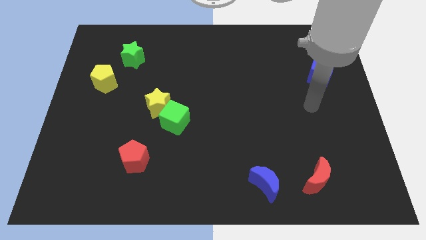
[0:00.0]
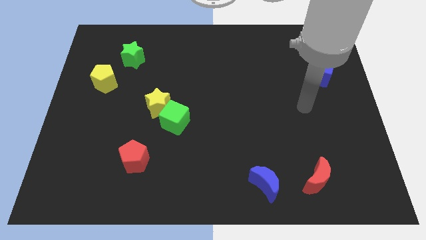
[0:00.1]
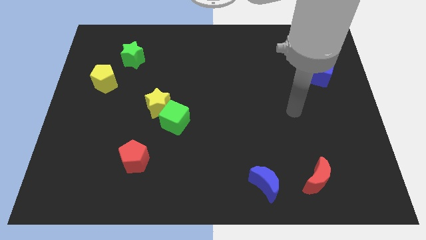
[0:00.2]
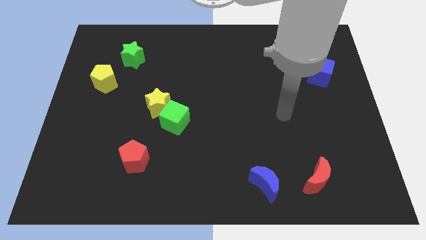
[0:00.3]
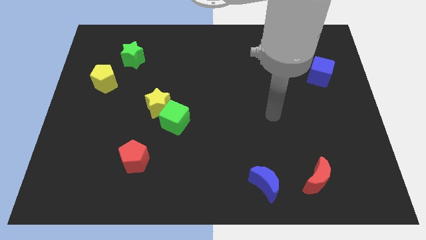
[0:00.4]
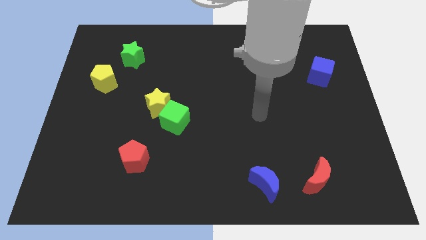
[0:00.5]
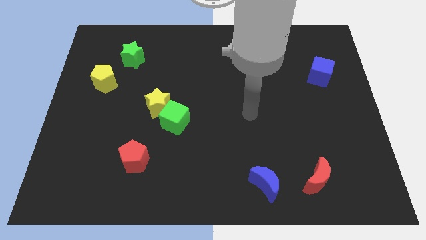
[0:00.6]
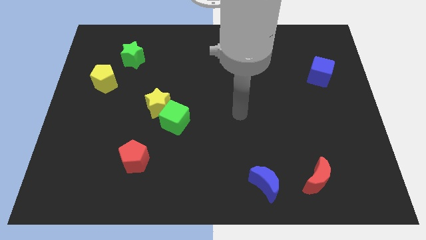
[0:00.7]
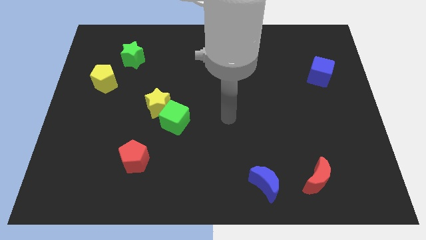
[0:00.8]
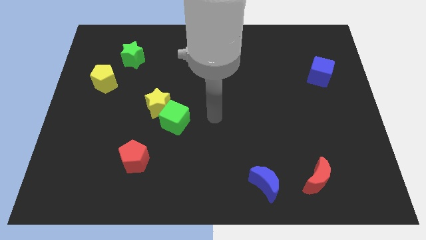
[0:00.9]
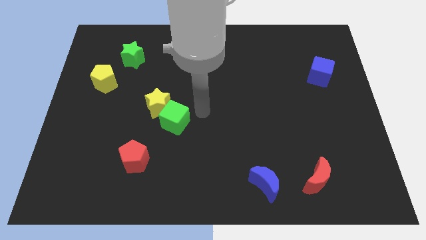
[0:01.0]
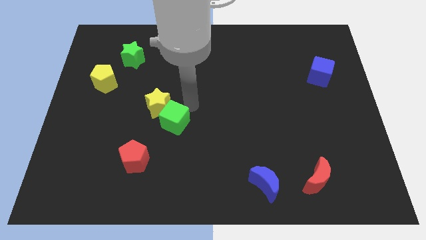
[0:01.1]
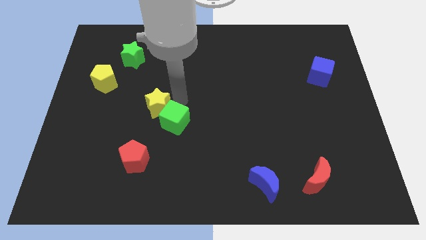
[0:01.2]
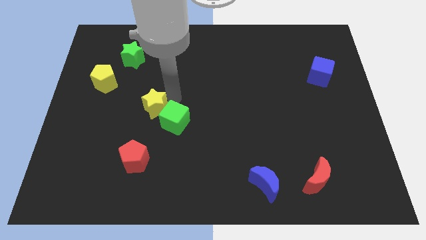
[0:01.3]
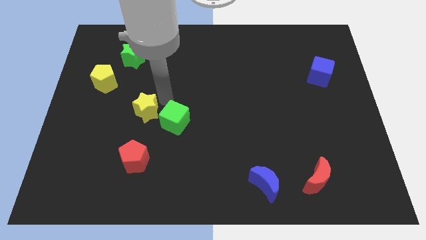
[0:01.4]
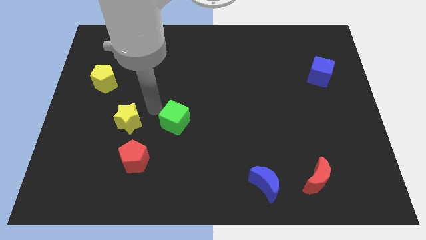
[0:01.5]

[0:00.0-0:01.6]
pull the green cube apart from the yellow star

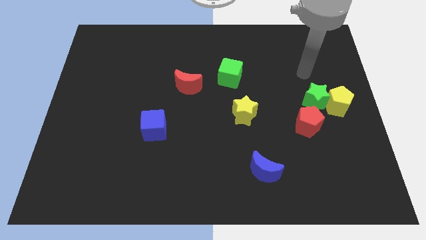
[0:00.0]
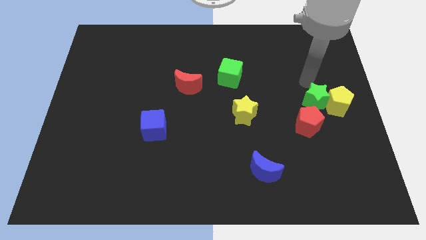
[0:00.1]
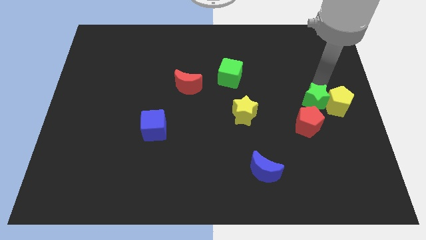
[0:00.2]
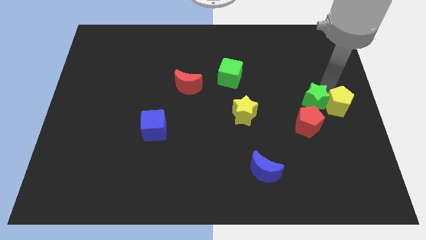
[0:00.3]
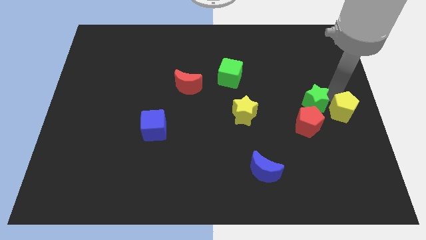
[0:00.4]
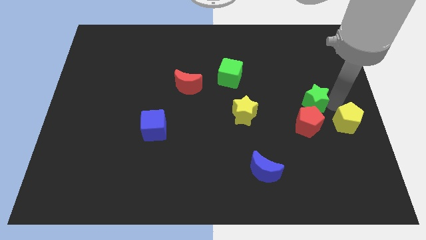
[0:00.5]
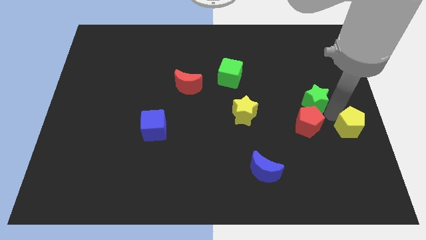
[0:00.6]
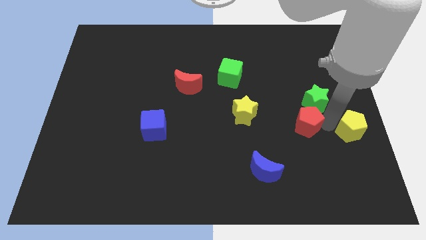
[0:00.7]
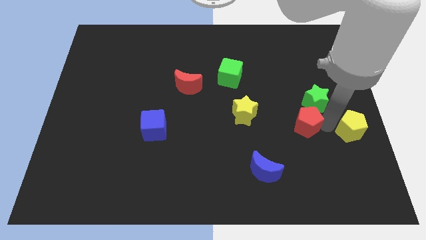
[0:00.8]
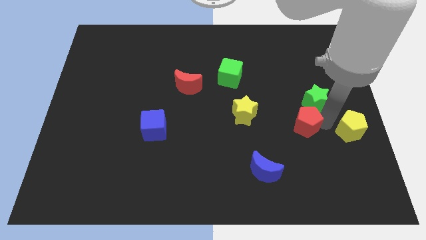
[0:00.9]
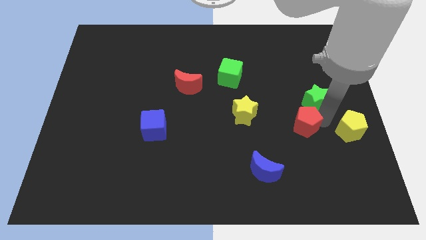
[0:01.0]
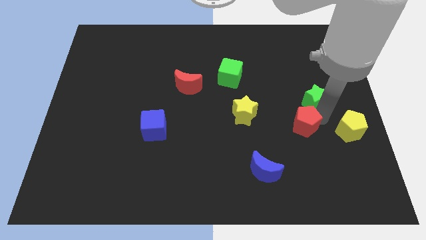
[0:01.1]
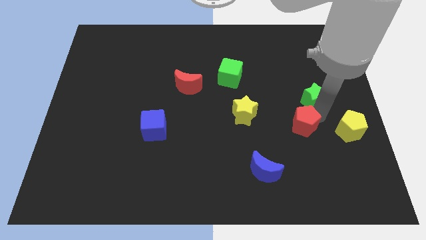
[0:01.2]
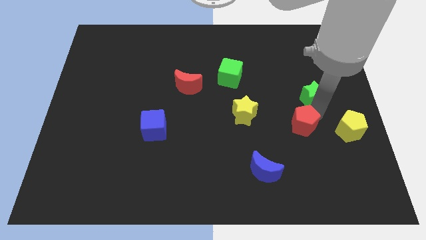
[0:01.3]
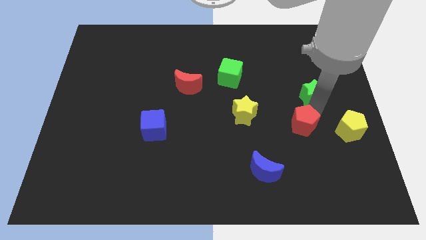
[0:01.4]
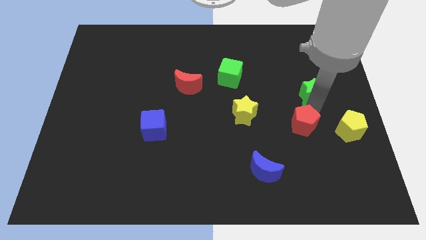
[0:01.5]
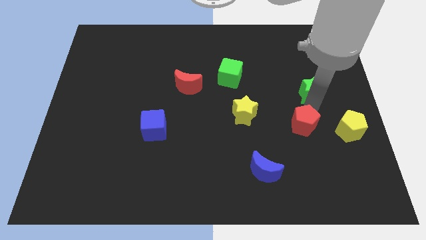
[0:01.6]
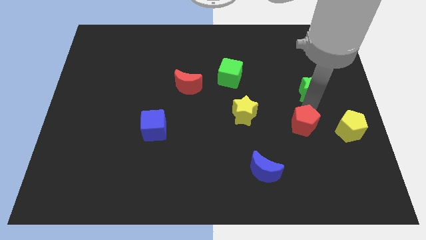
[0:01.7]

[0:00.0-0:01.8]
pull the green star apart from the yellow pentagon and red pentagon

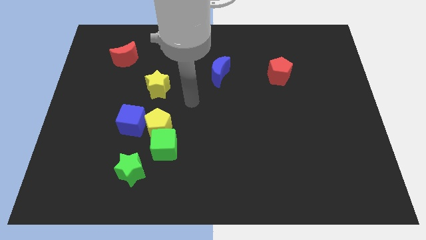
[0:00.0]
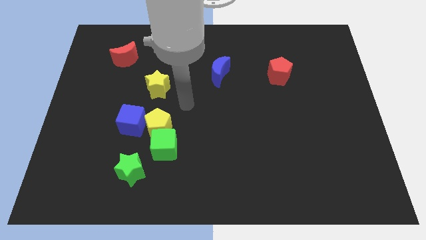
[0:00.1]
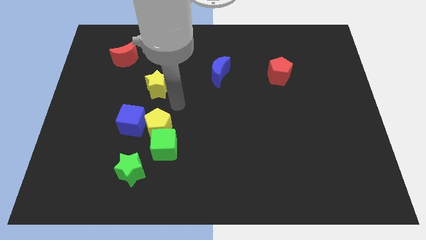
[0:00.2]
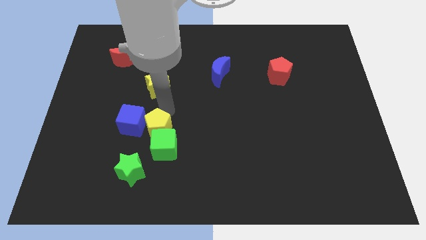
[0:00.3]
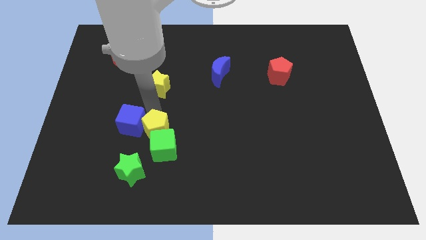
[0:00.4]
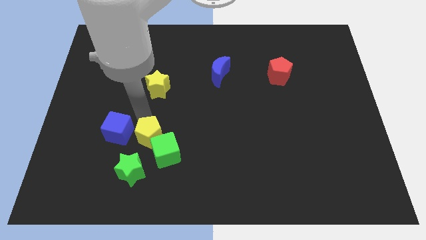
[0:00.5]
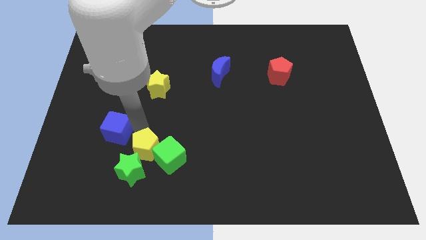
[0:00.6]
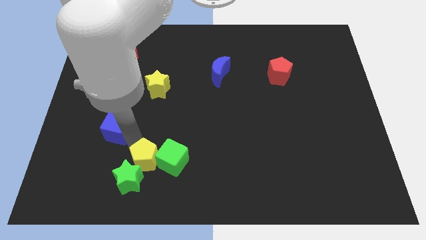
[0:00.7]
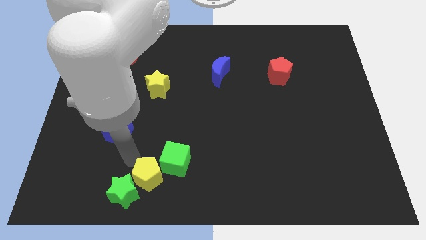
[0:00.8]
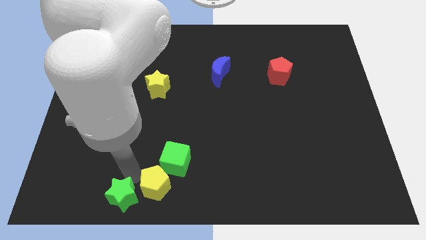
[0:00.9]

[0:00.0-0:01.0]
pull the yellow pentagon apart from the green cube and blue cube

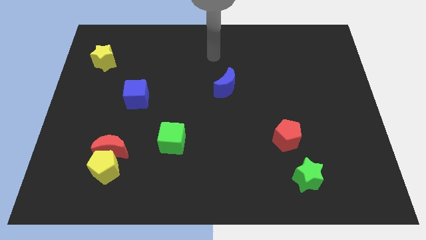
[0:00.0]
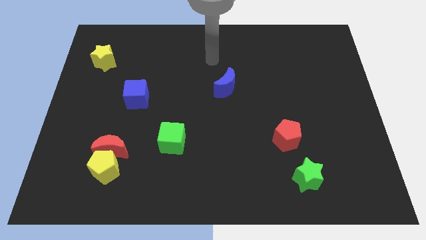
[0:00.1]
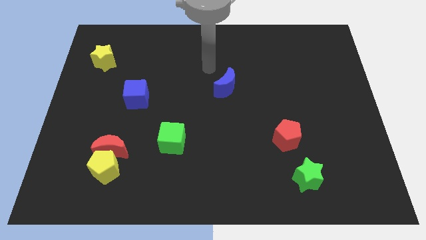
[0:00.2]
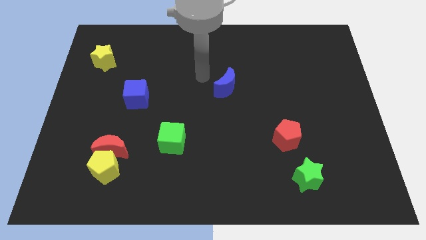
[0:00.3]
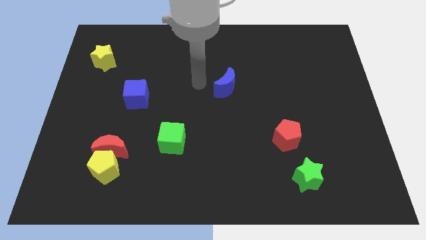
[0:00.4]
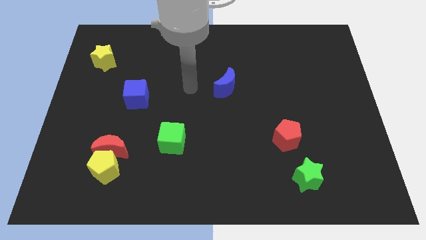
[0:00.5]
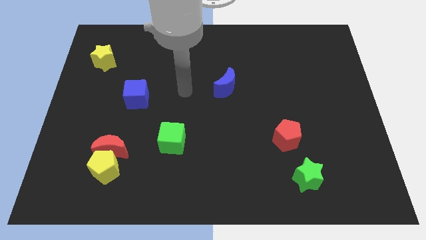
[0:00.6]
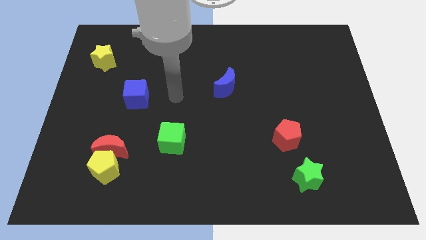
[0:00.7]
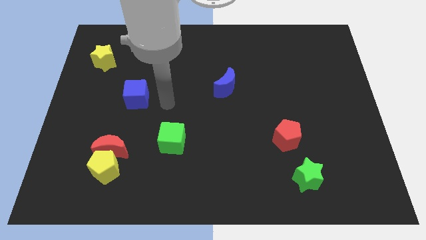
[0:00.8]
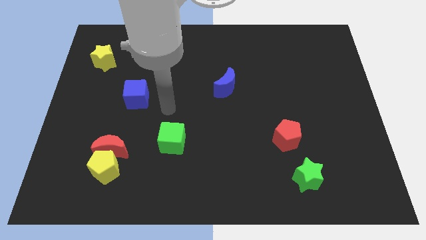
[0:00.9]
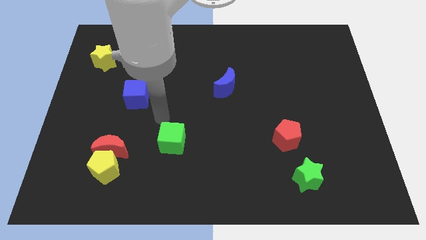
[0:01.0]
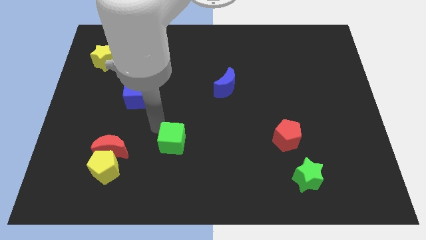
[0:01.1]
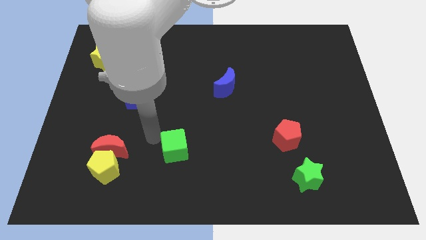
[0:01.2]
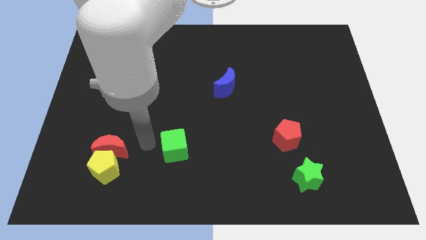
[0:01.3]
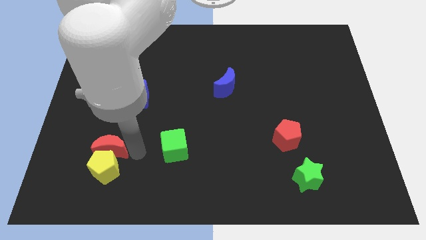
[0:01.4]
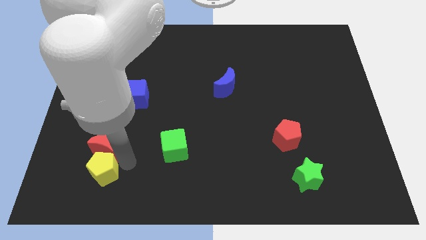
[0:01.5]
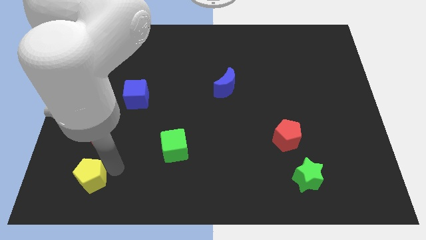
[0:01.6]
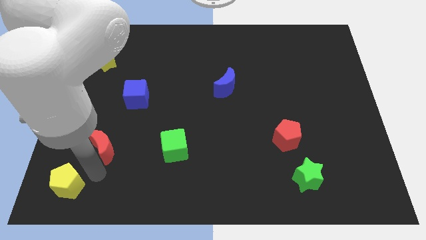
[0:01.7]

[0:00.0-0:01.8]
pull the red moon apart from the yellow pentagon

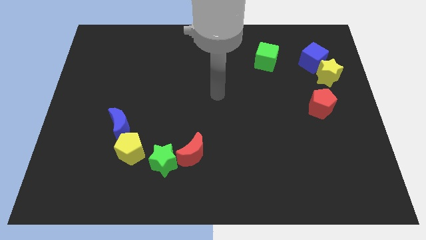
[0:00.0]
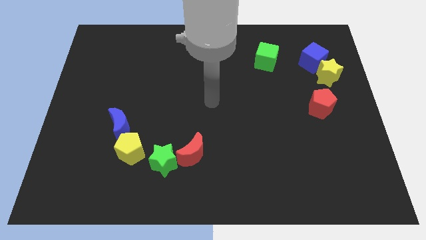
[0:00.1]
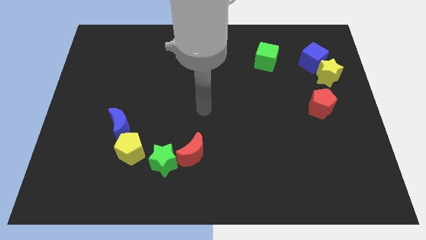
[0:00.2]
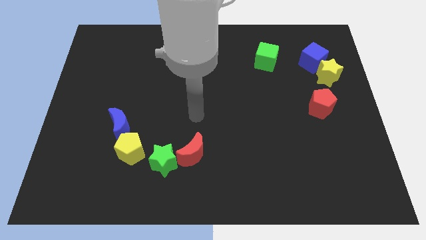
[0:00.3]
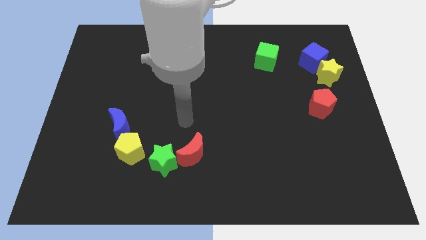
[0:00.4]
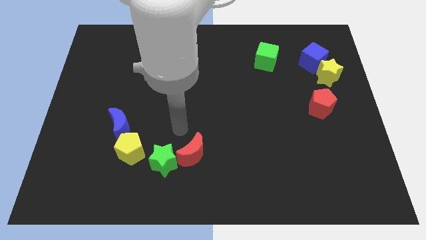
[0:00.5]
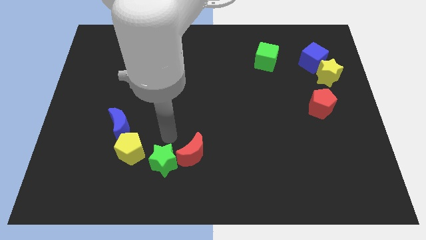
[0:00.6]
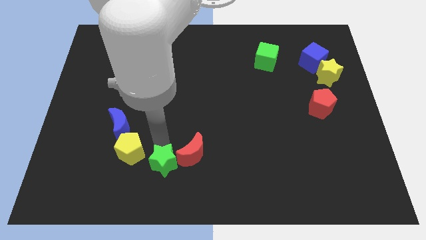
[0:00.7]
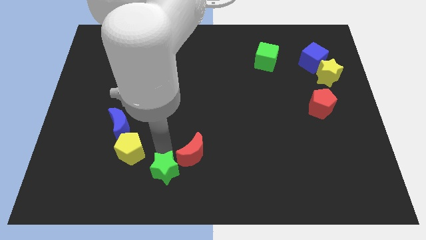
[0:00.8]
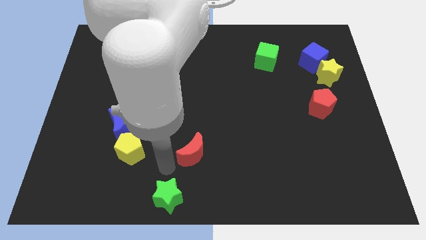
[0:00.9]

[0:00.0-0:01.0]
separate the red moon from the green star

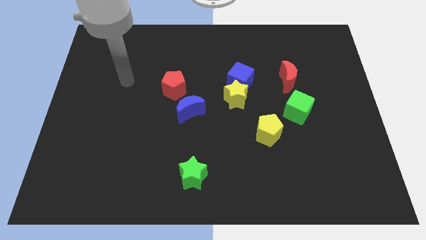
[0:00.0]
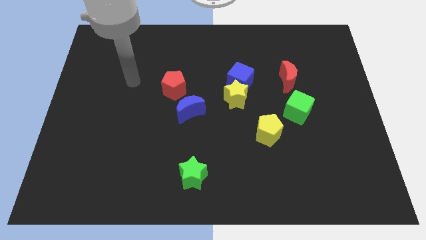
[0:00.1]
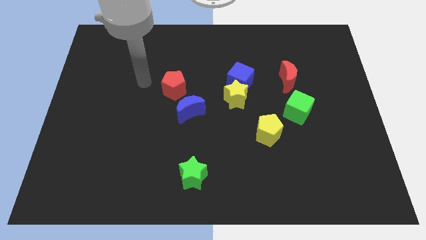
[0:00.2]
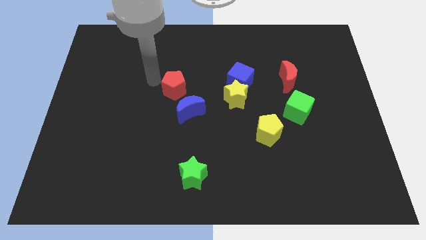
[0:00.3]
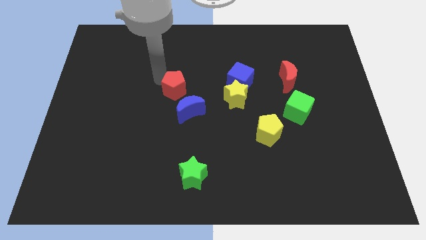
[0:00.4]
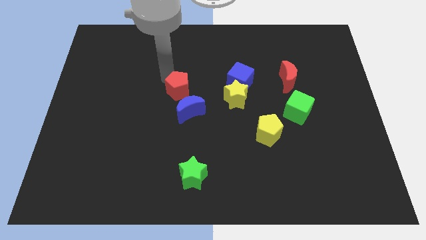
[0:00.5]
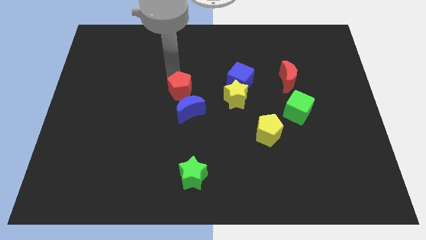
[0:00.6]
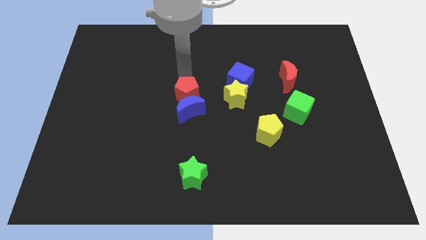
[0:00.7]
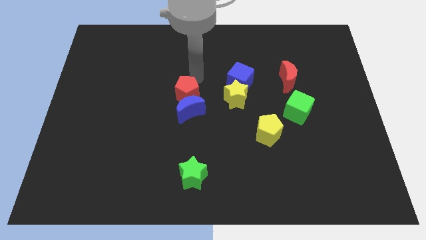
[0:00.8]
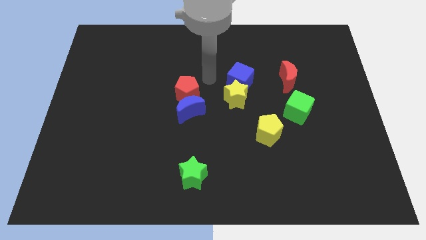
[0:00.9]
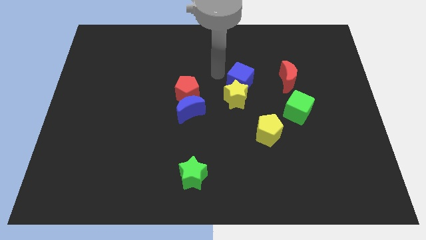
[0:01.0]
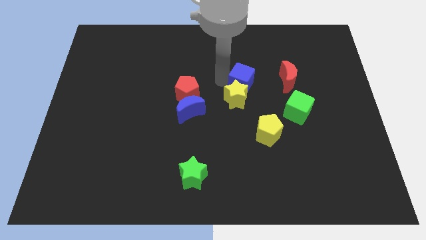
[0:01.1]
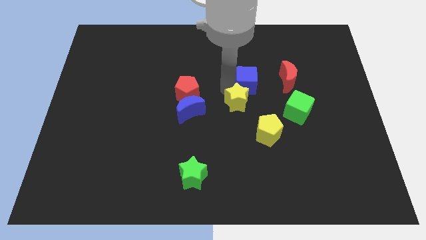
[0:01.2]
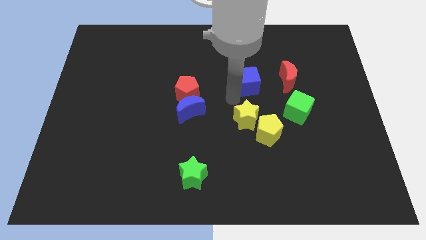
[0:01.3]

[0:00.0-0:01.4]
separate the blue cube from the yellow star

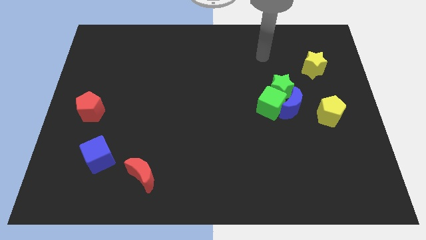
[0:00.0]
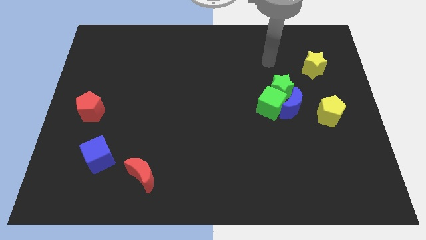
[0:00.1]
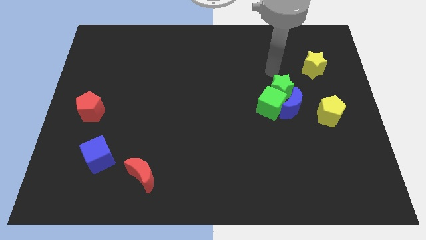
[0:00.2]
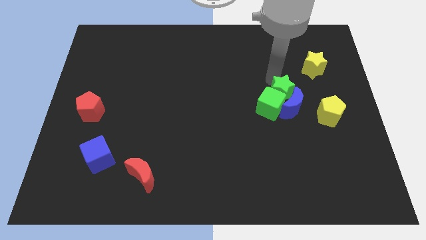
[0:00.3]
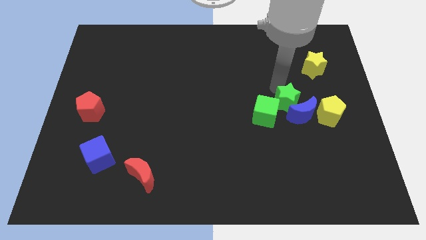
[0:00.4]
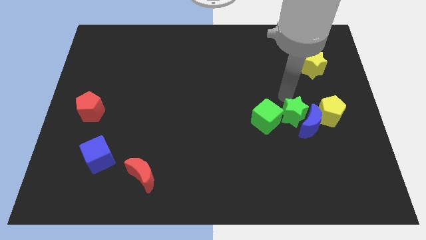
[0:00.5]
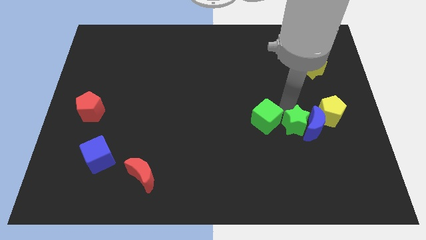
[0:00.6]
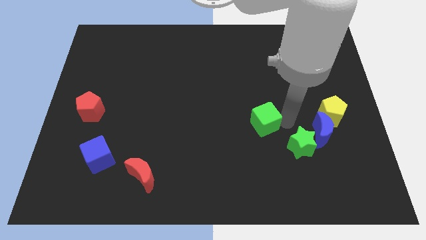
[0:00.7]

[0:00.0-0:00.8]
move the green cube away from the blue moon and green star

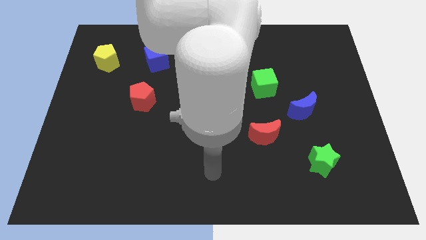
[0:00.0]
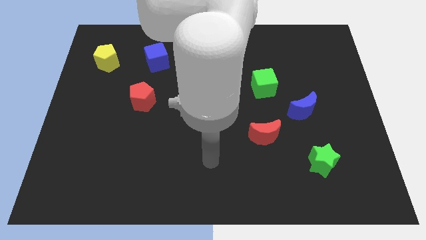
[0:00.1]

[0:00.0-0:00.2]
move the green cube away from the yellow star
